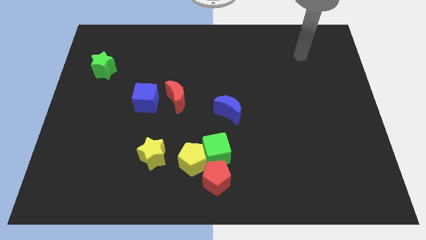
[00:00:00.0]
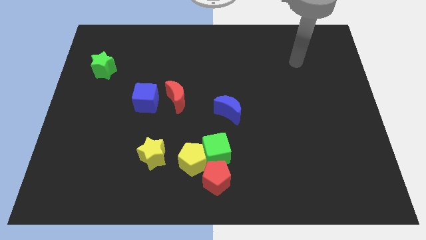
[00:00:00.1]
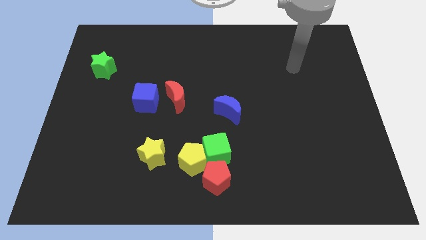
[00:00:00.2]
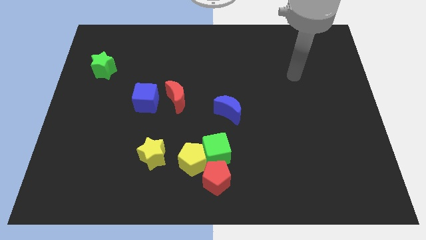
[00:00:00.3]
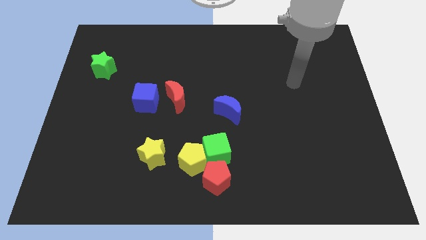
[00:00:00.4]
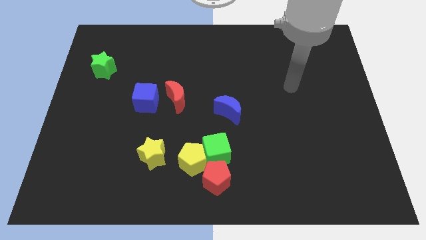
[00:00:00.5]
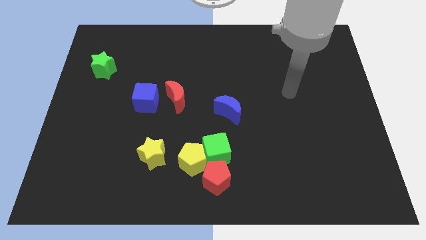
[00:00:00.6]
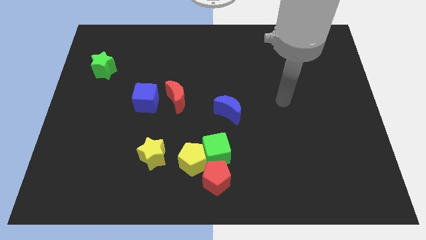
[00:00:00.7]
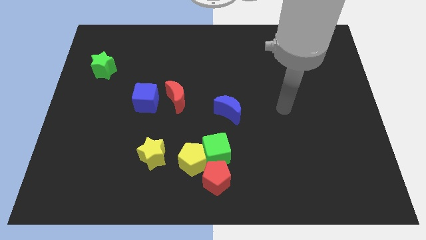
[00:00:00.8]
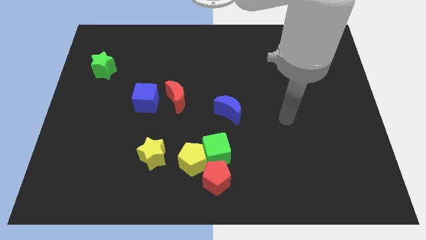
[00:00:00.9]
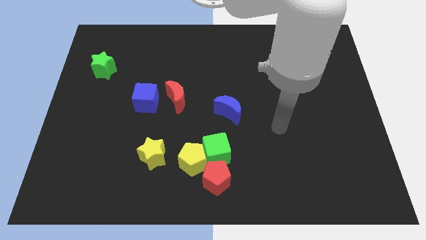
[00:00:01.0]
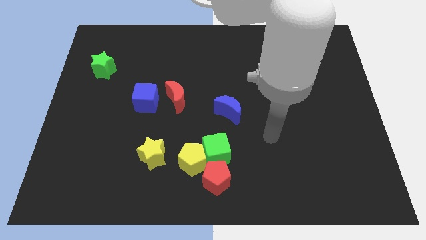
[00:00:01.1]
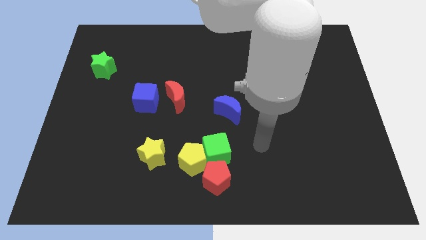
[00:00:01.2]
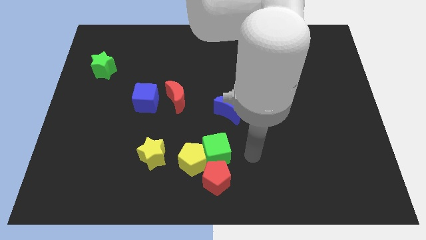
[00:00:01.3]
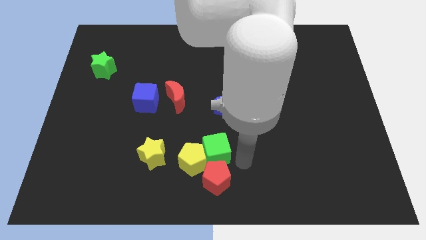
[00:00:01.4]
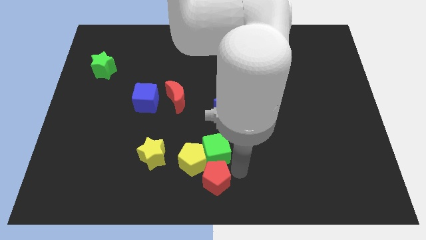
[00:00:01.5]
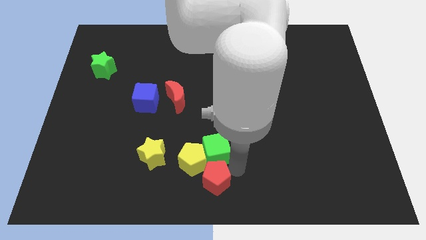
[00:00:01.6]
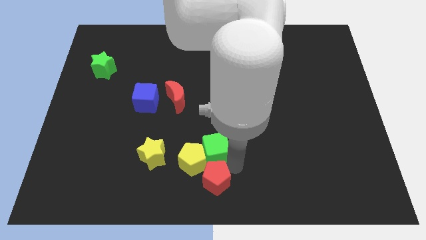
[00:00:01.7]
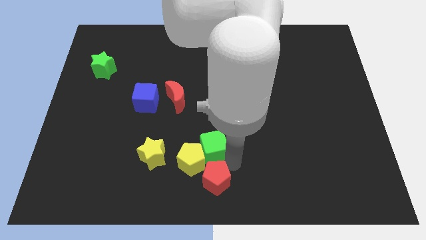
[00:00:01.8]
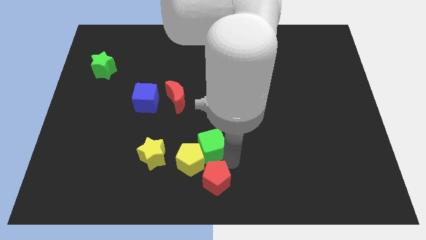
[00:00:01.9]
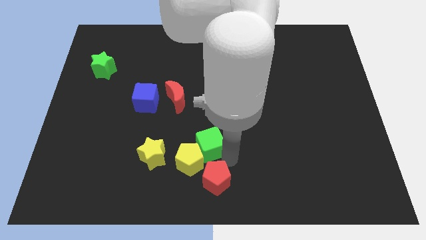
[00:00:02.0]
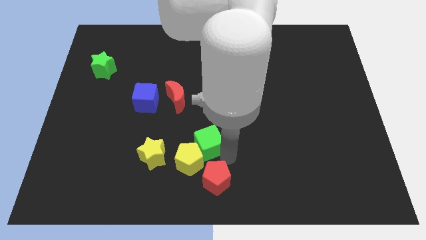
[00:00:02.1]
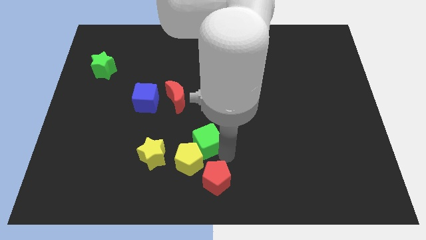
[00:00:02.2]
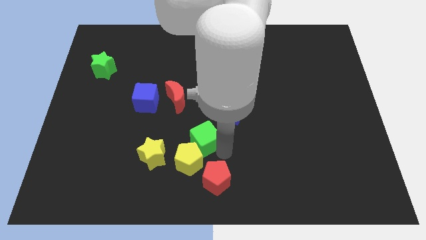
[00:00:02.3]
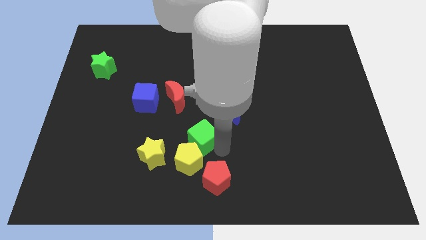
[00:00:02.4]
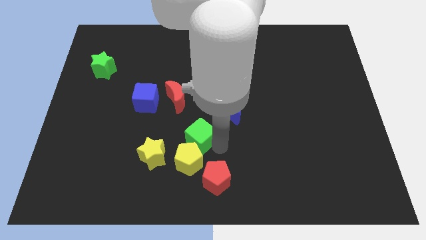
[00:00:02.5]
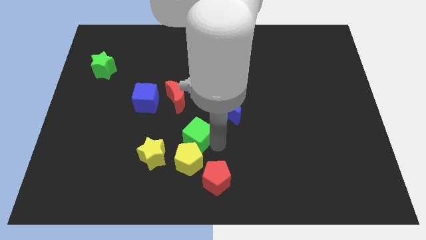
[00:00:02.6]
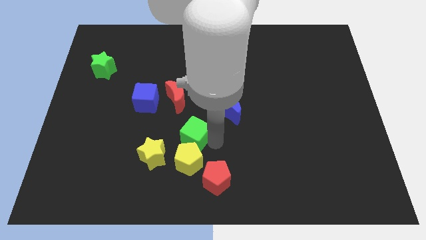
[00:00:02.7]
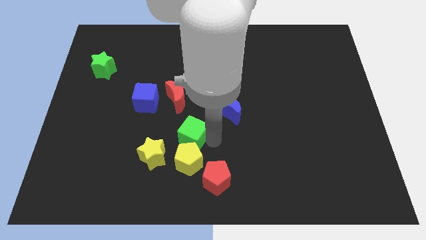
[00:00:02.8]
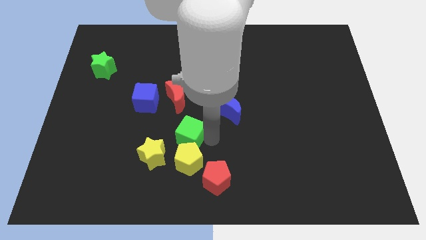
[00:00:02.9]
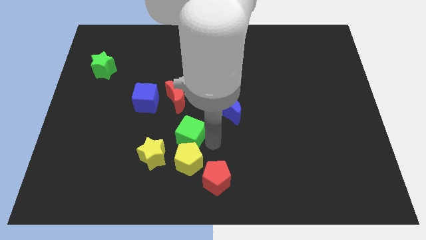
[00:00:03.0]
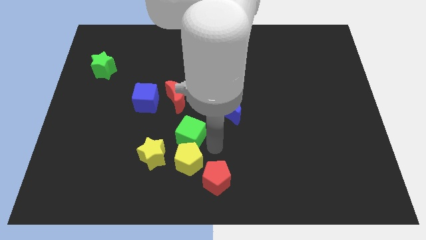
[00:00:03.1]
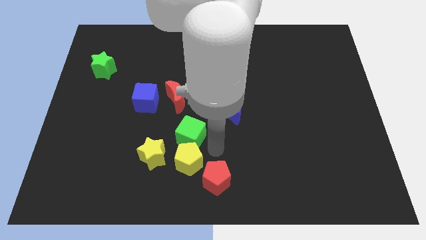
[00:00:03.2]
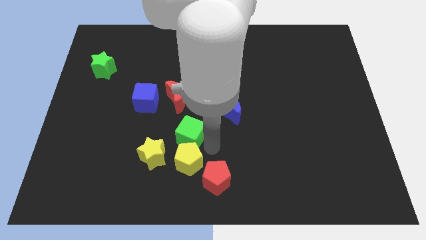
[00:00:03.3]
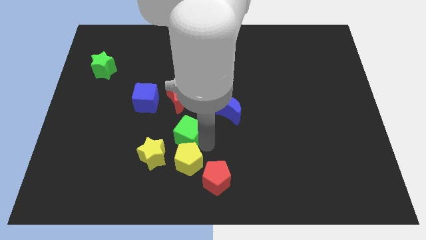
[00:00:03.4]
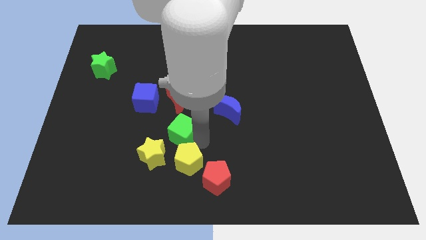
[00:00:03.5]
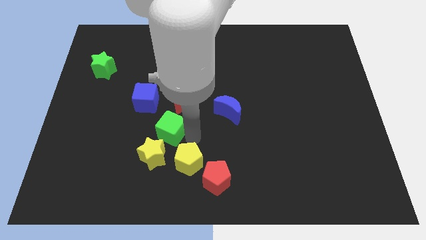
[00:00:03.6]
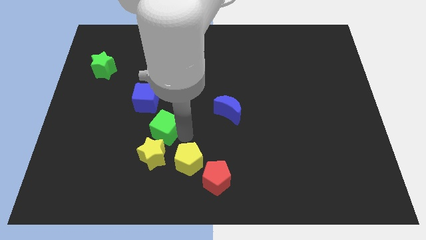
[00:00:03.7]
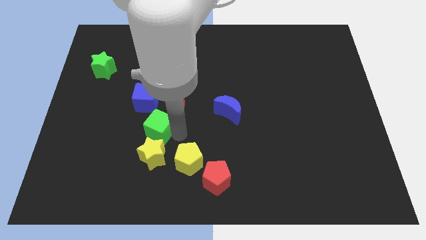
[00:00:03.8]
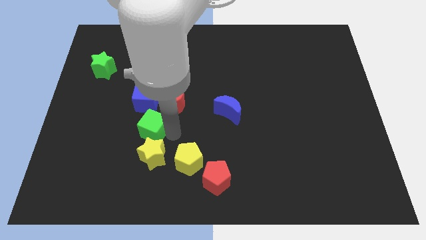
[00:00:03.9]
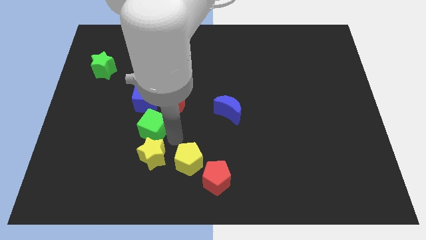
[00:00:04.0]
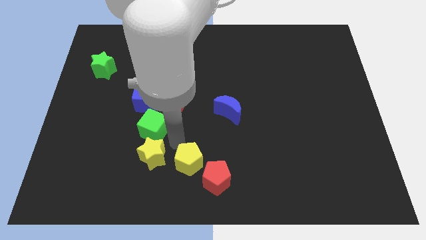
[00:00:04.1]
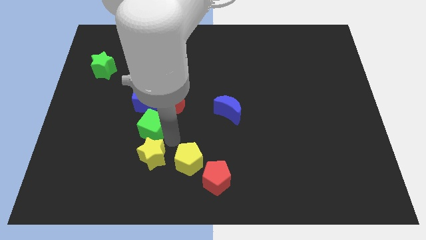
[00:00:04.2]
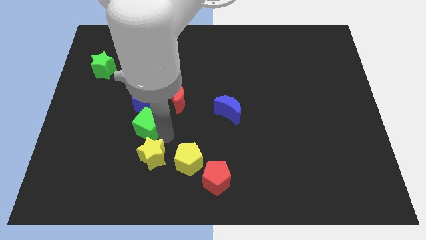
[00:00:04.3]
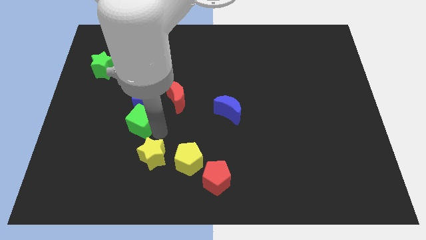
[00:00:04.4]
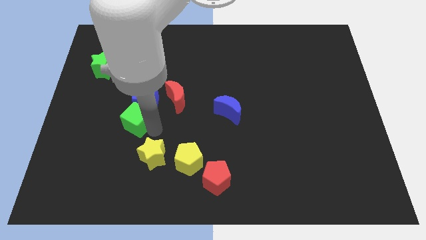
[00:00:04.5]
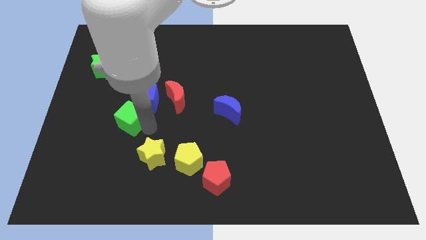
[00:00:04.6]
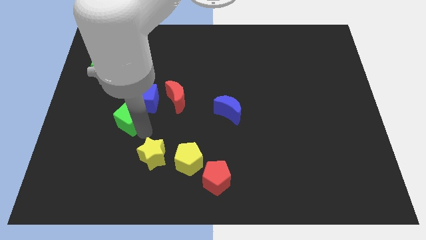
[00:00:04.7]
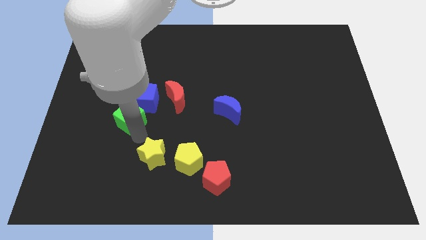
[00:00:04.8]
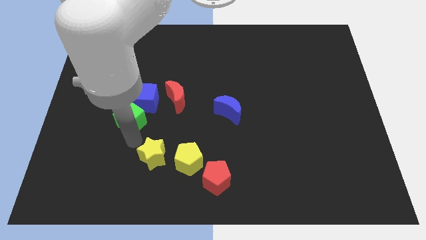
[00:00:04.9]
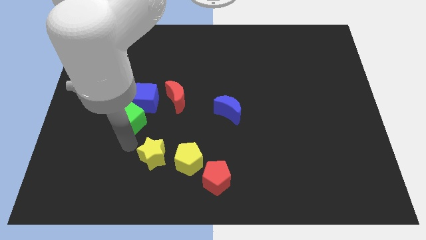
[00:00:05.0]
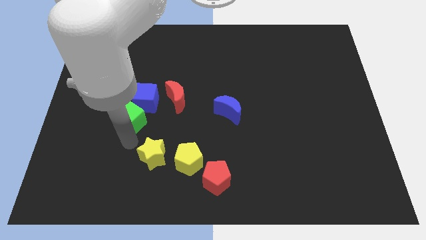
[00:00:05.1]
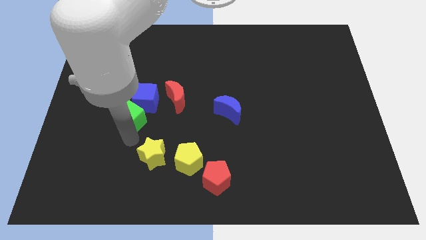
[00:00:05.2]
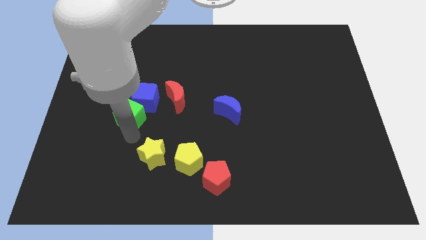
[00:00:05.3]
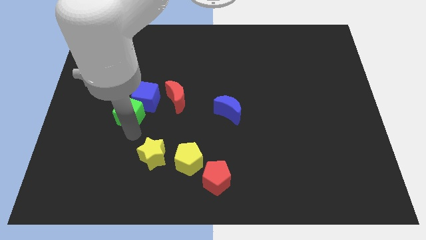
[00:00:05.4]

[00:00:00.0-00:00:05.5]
push the green cube to the left side of the red moon

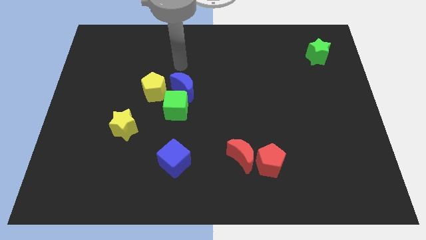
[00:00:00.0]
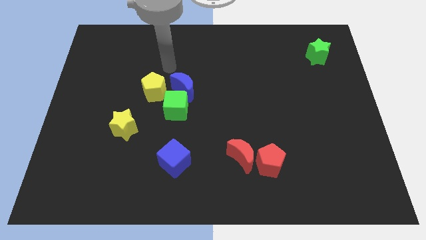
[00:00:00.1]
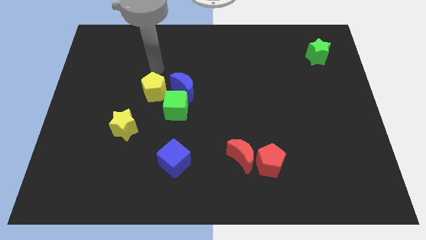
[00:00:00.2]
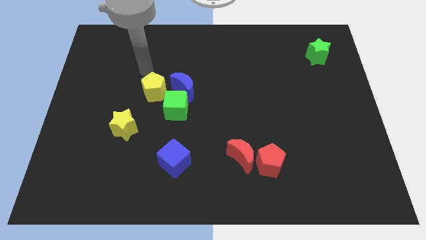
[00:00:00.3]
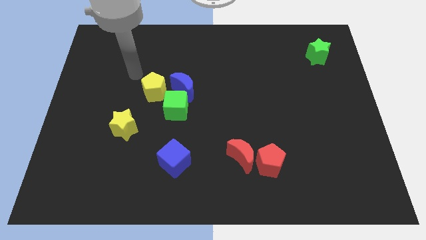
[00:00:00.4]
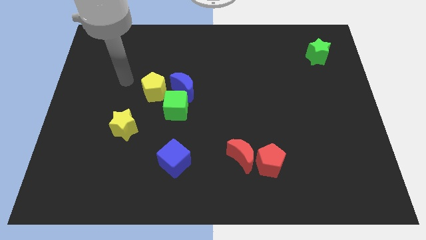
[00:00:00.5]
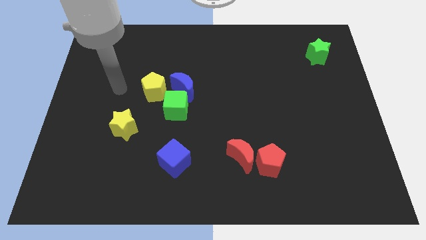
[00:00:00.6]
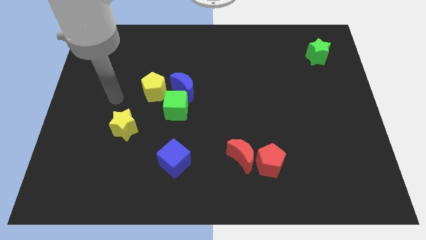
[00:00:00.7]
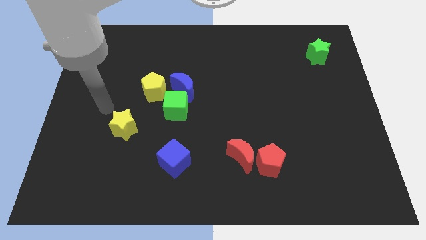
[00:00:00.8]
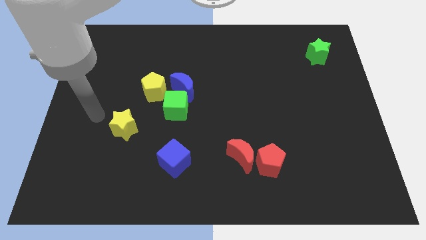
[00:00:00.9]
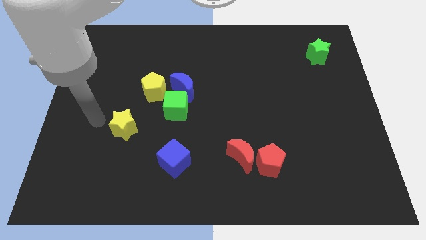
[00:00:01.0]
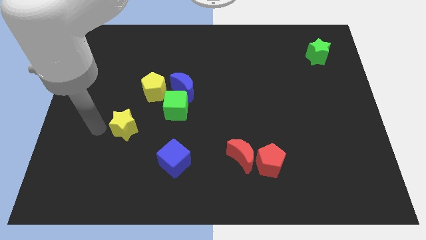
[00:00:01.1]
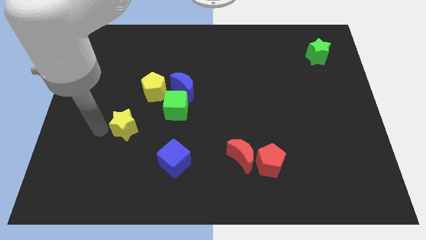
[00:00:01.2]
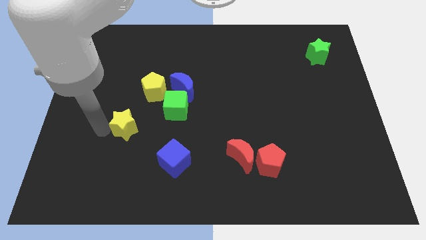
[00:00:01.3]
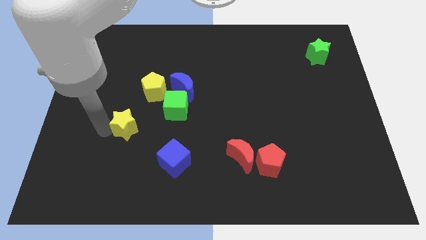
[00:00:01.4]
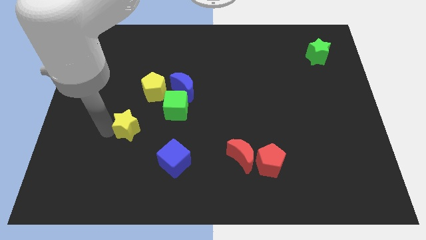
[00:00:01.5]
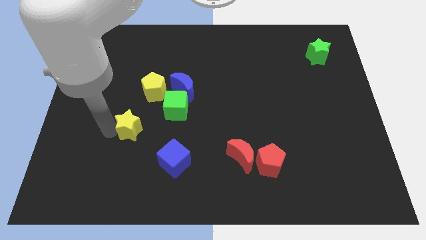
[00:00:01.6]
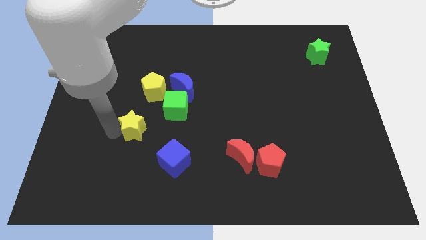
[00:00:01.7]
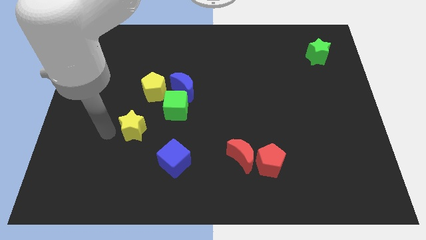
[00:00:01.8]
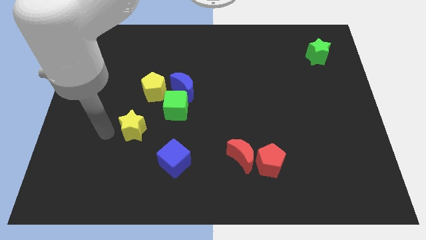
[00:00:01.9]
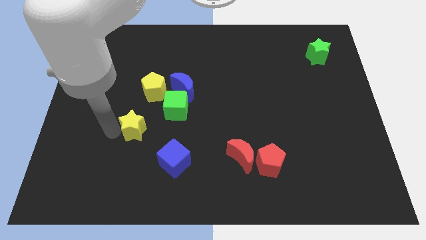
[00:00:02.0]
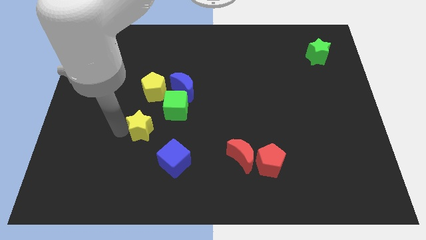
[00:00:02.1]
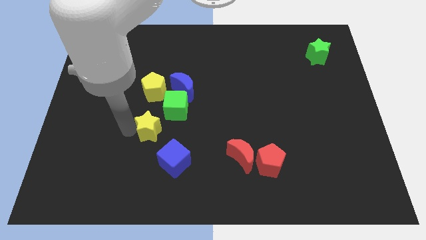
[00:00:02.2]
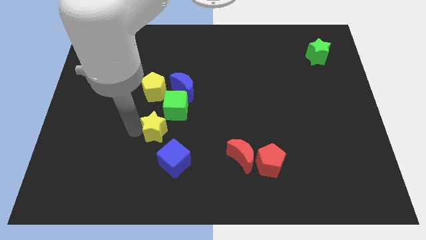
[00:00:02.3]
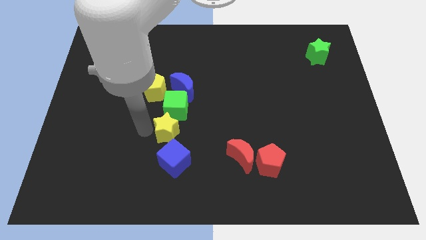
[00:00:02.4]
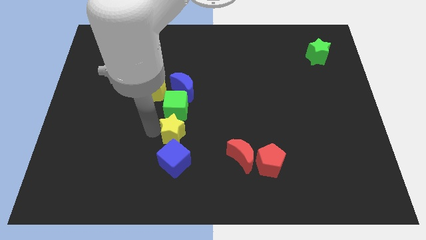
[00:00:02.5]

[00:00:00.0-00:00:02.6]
push the yellow star to the bottom right of the green cube
